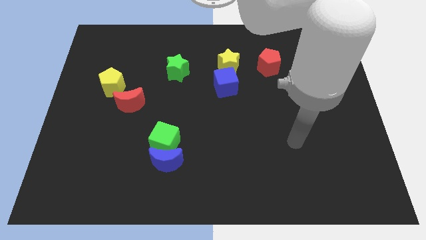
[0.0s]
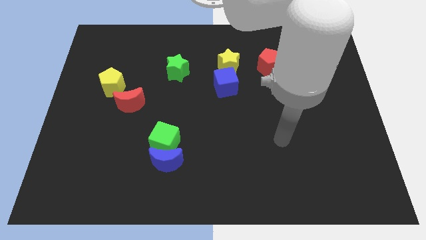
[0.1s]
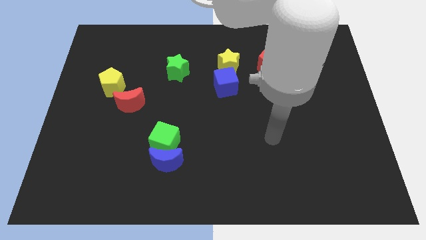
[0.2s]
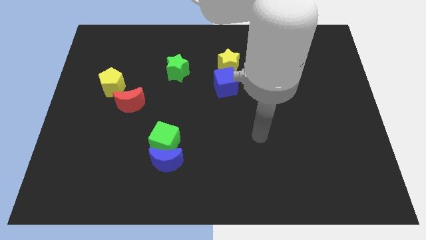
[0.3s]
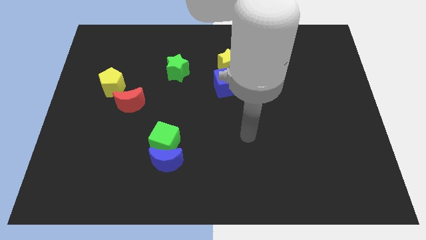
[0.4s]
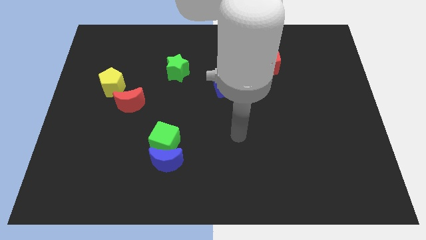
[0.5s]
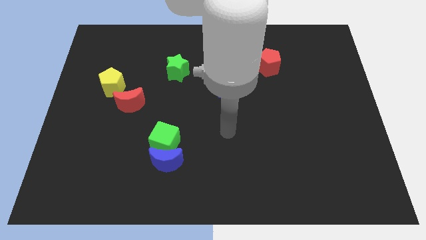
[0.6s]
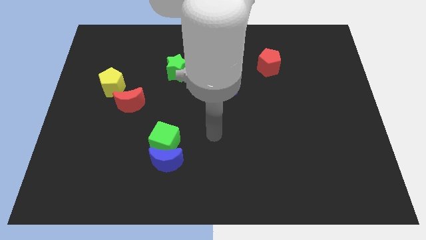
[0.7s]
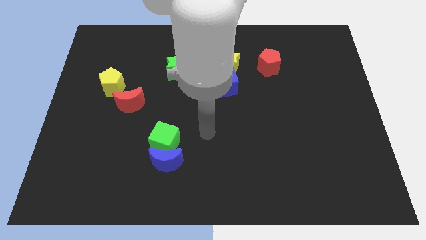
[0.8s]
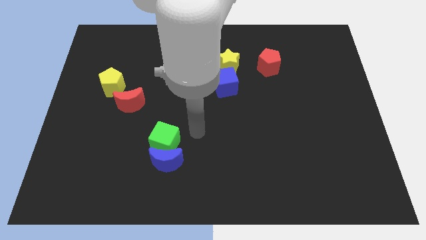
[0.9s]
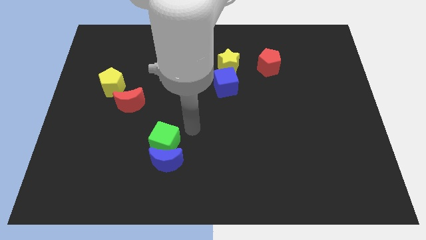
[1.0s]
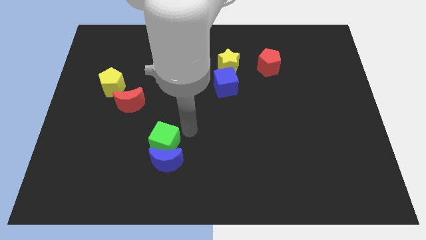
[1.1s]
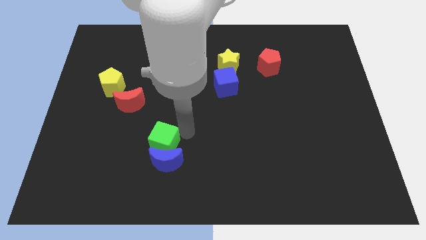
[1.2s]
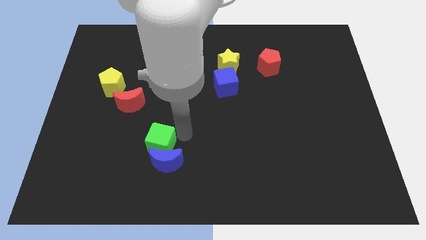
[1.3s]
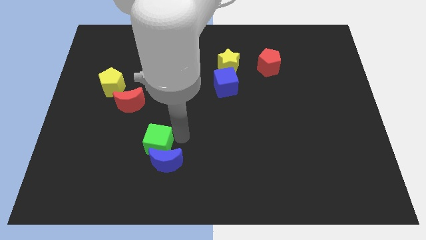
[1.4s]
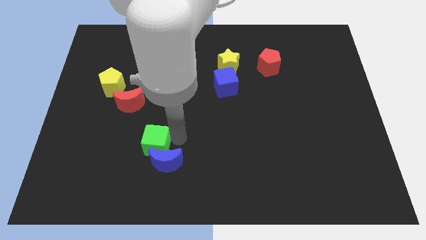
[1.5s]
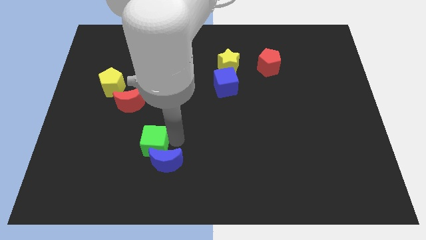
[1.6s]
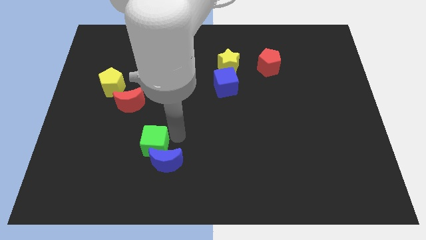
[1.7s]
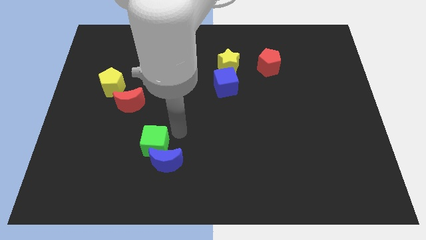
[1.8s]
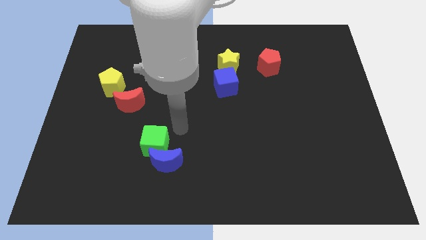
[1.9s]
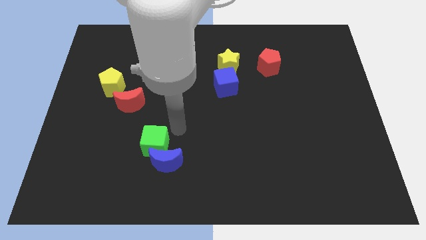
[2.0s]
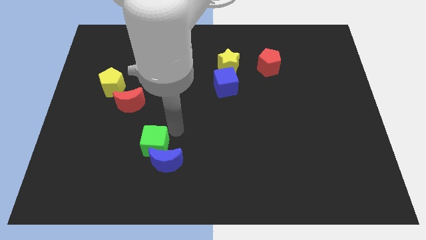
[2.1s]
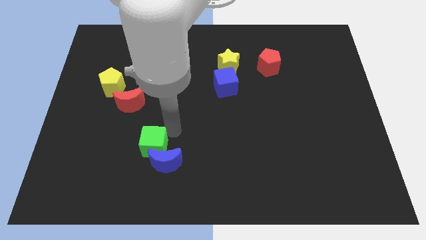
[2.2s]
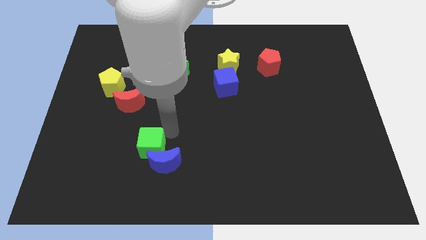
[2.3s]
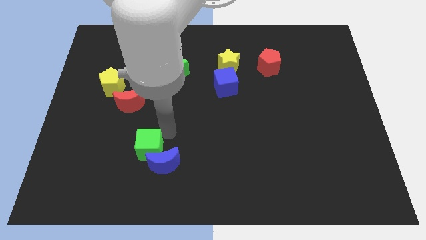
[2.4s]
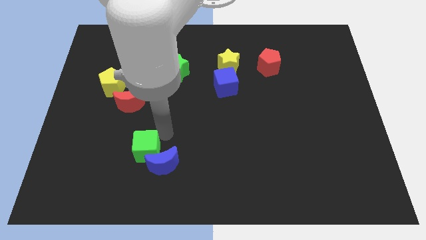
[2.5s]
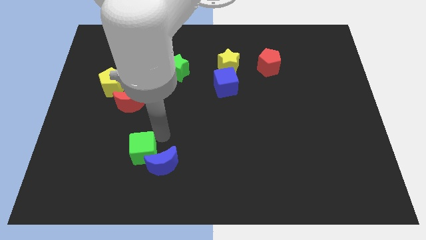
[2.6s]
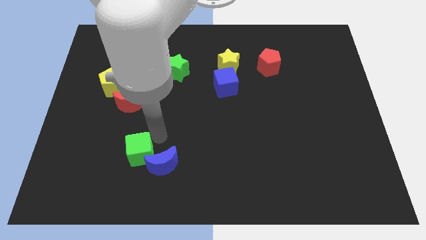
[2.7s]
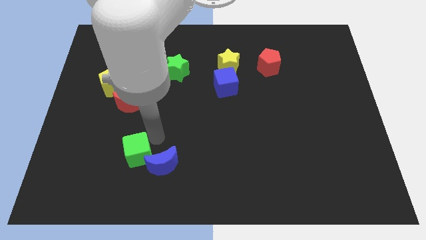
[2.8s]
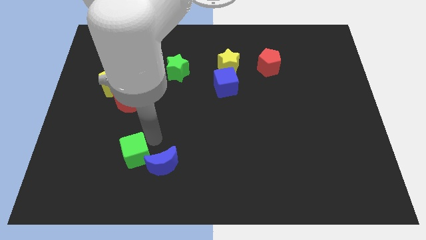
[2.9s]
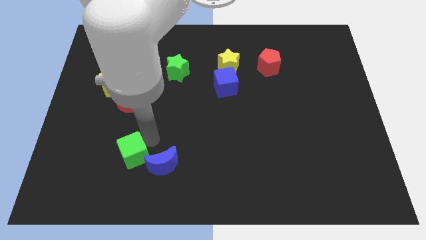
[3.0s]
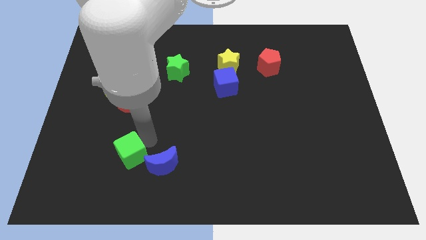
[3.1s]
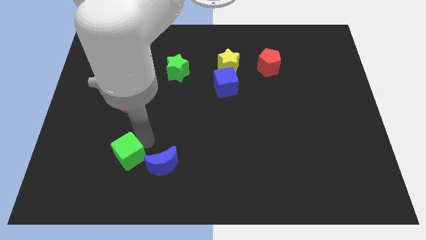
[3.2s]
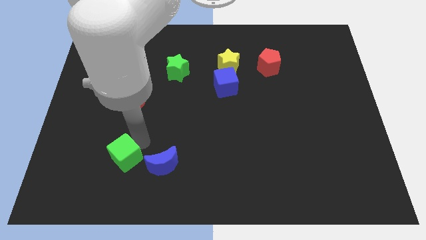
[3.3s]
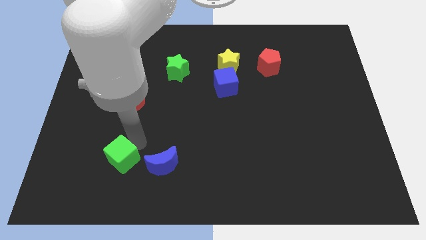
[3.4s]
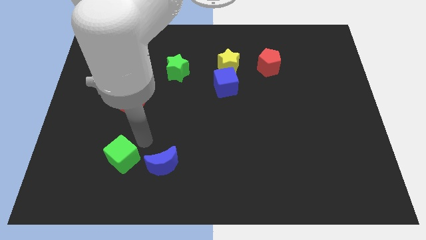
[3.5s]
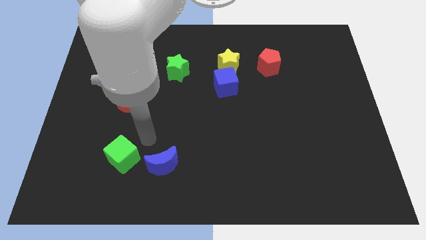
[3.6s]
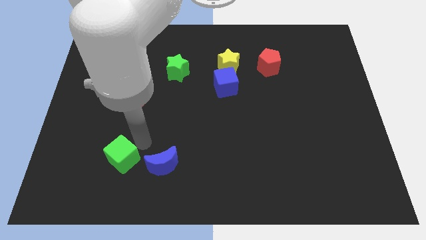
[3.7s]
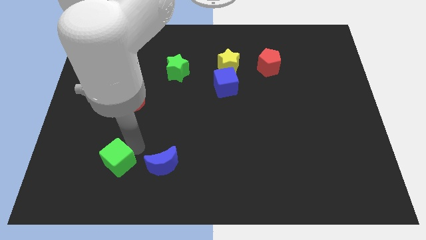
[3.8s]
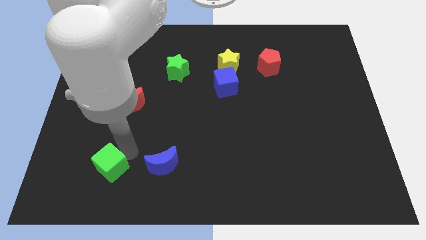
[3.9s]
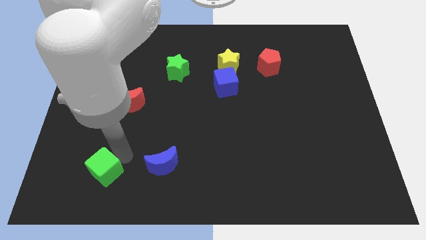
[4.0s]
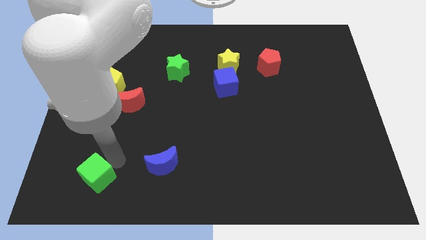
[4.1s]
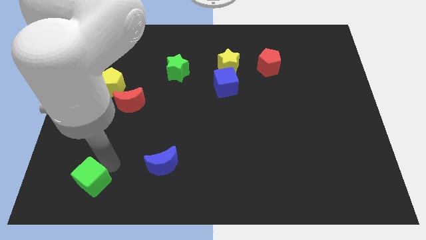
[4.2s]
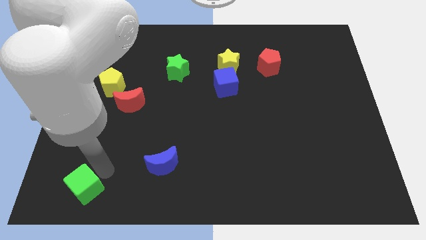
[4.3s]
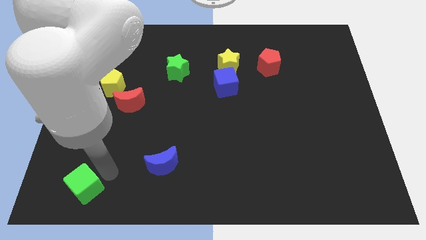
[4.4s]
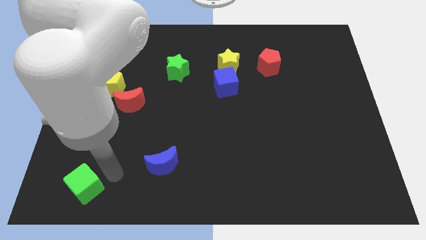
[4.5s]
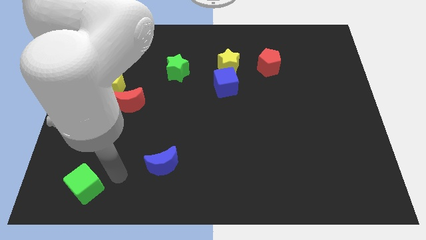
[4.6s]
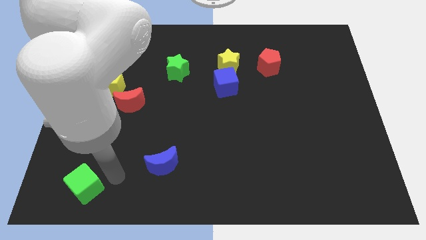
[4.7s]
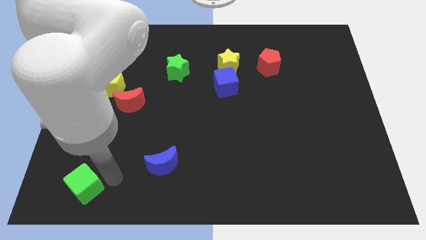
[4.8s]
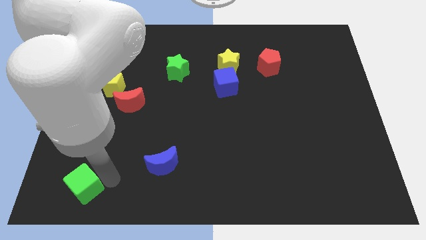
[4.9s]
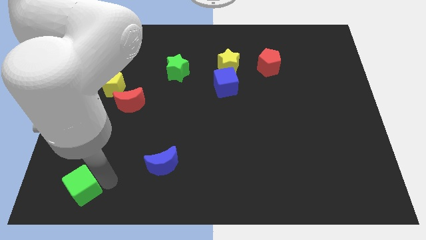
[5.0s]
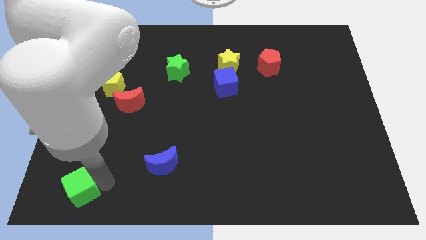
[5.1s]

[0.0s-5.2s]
push the green cube to the bottom left

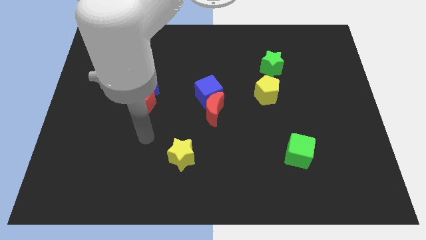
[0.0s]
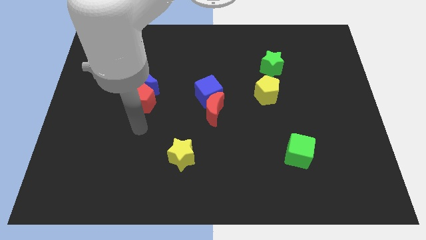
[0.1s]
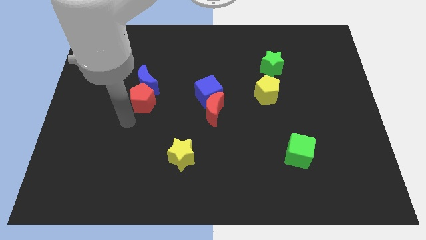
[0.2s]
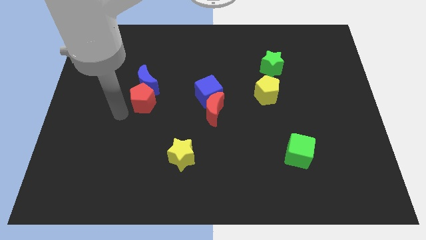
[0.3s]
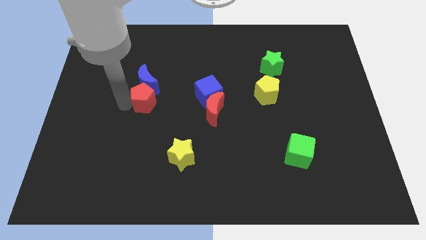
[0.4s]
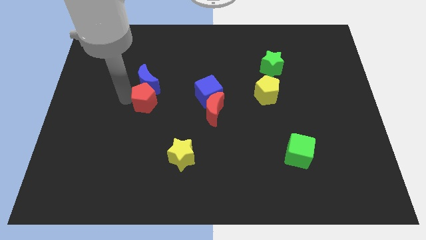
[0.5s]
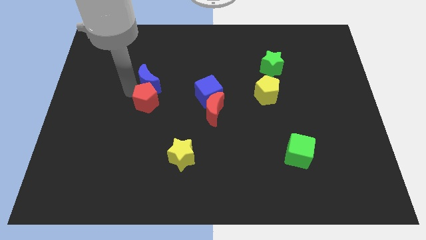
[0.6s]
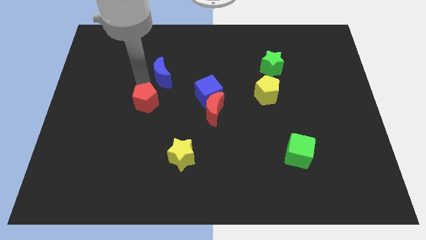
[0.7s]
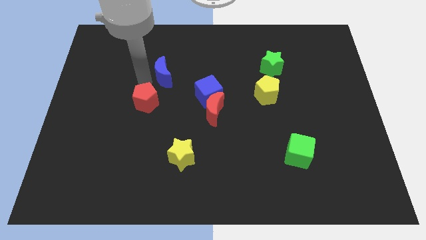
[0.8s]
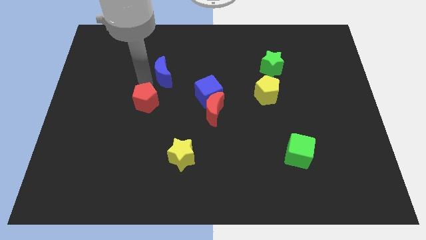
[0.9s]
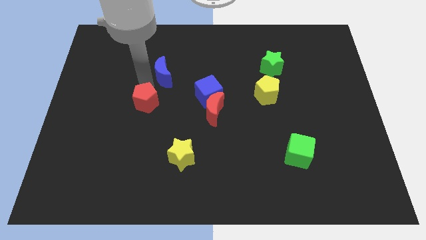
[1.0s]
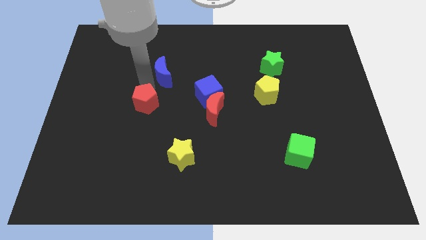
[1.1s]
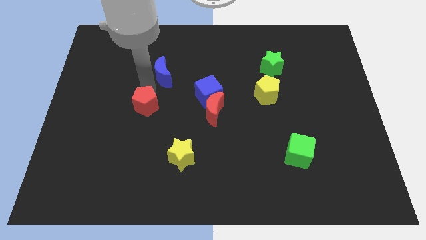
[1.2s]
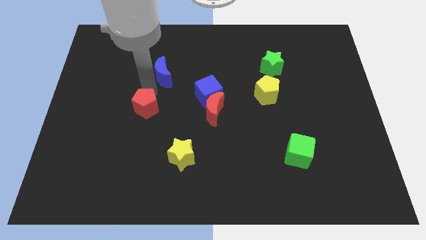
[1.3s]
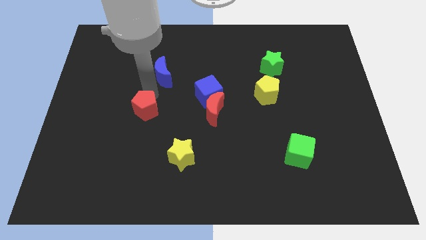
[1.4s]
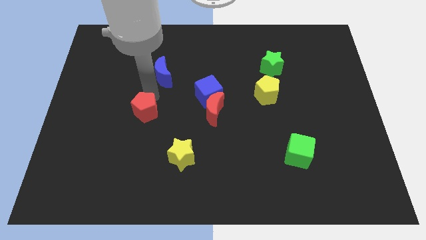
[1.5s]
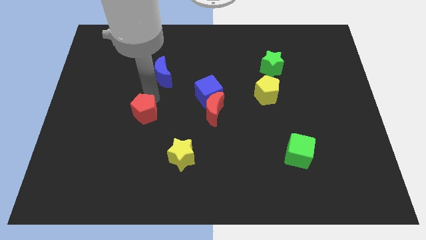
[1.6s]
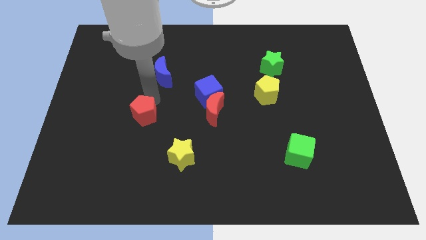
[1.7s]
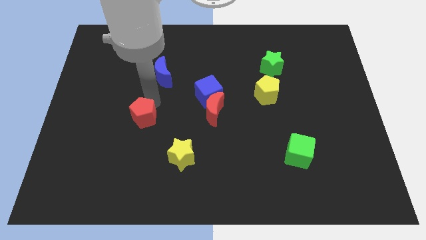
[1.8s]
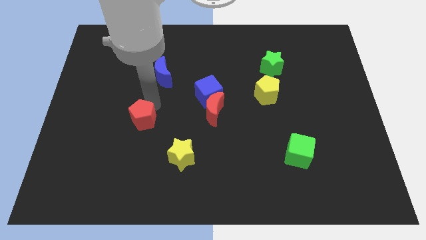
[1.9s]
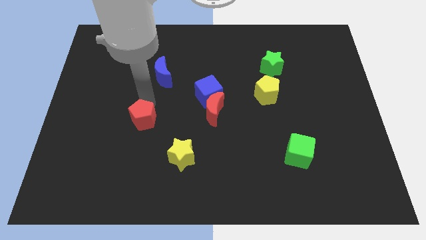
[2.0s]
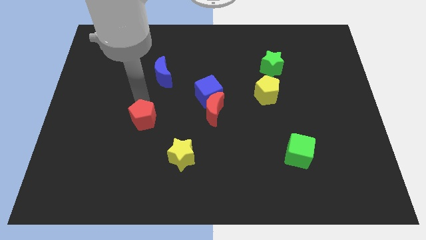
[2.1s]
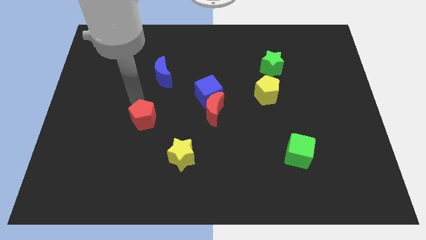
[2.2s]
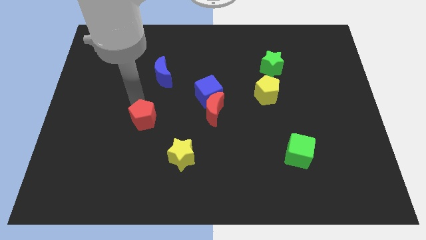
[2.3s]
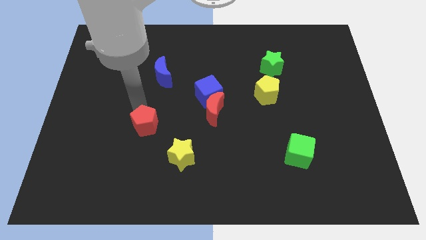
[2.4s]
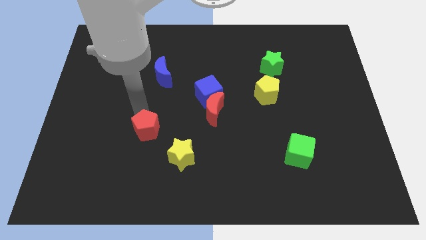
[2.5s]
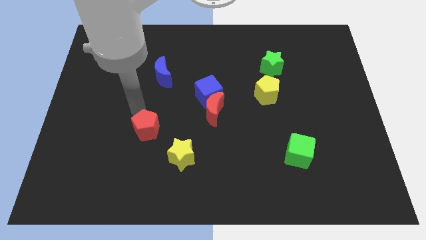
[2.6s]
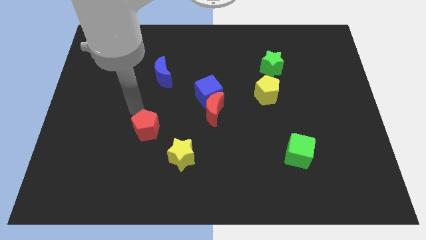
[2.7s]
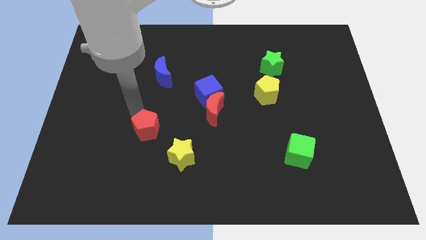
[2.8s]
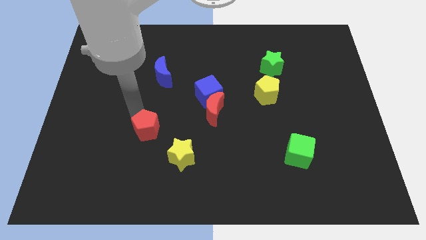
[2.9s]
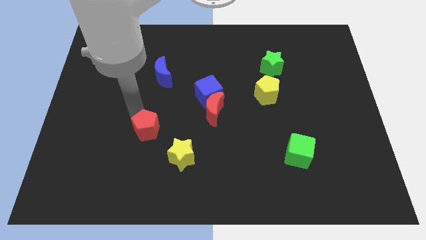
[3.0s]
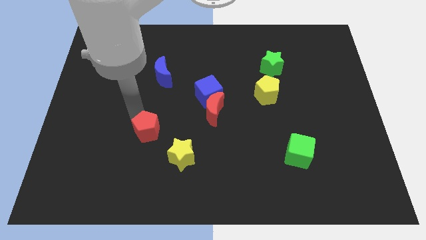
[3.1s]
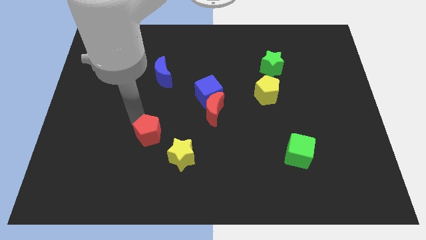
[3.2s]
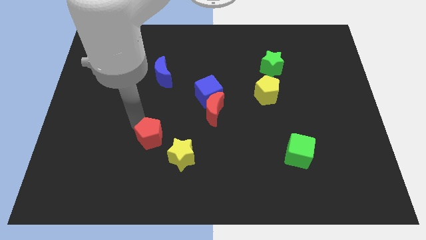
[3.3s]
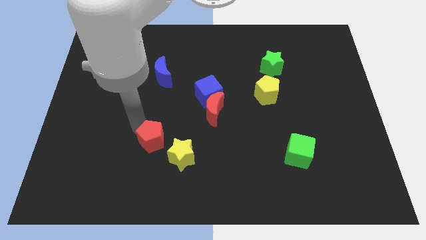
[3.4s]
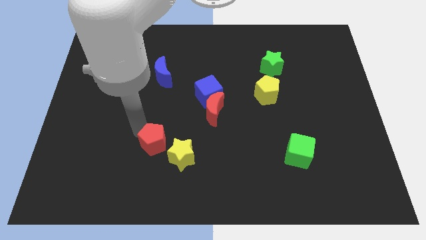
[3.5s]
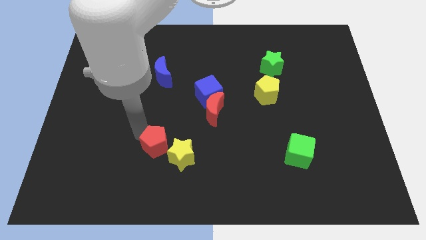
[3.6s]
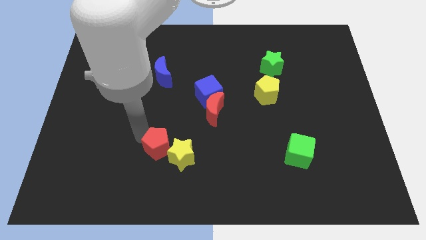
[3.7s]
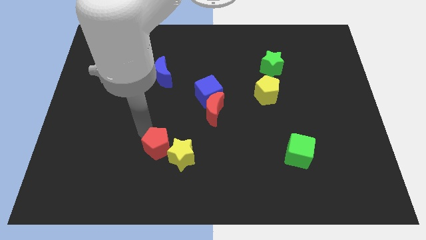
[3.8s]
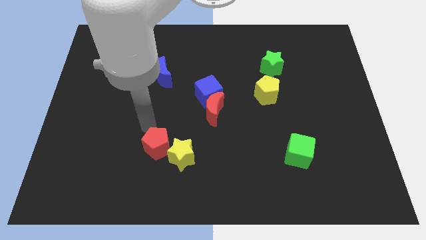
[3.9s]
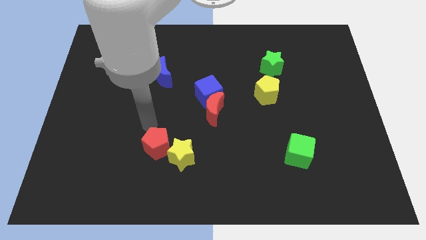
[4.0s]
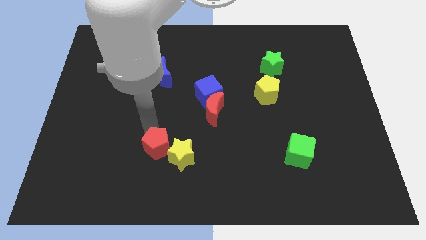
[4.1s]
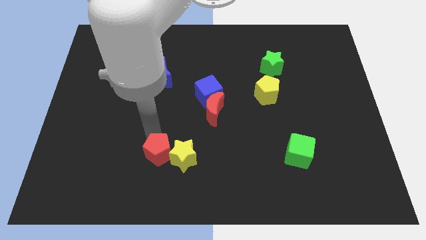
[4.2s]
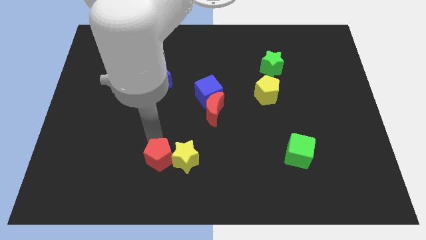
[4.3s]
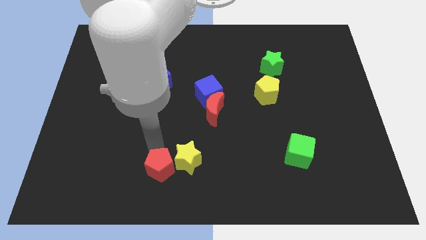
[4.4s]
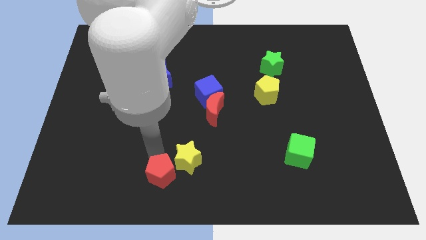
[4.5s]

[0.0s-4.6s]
push the red pentagon to the bottom
